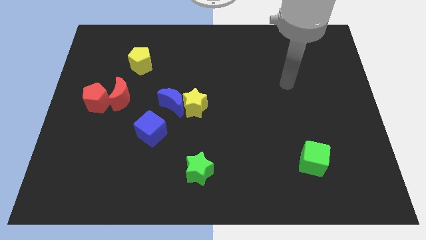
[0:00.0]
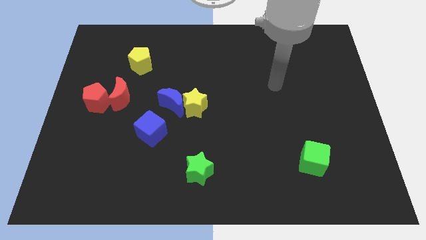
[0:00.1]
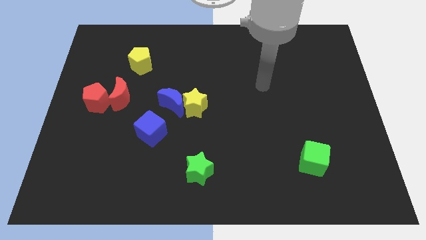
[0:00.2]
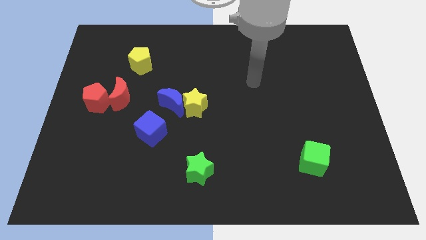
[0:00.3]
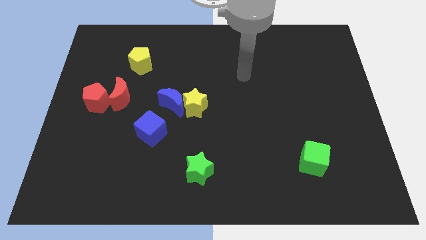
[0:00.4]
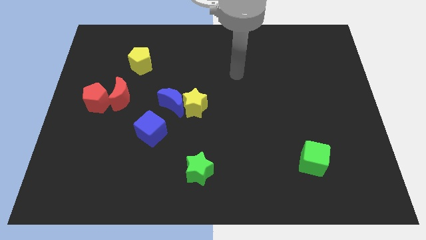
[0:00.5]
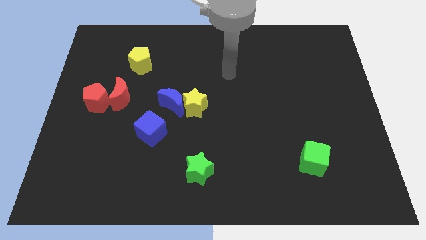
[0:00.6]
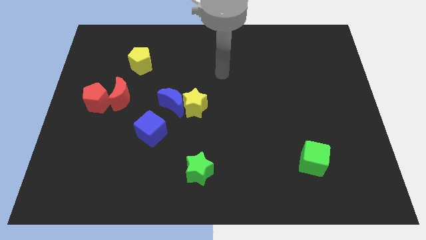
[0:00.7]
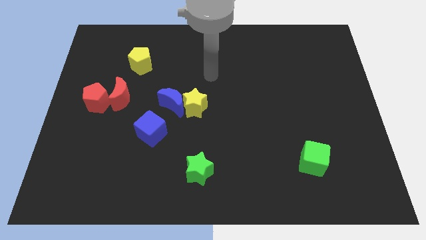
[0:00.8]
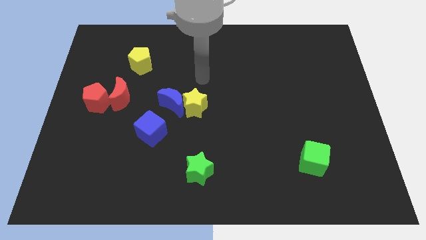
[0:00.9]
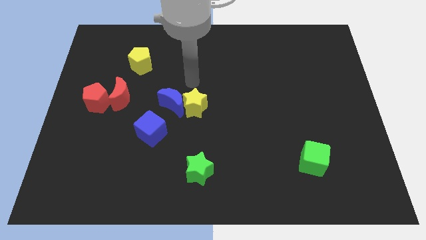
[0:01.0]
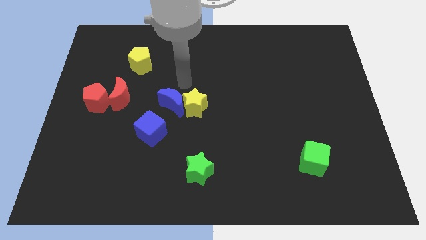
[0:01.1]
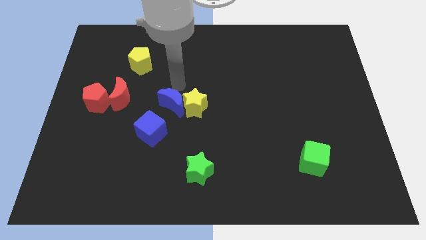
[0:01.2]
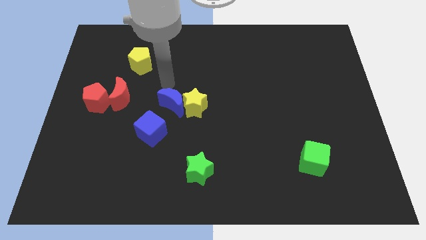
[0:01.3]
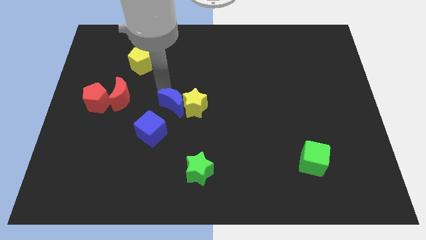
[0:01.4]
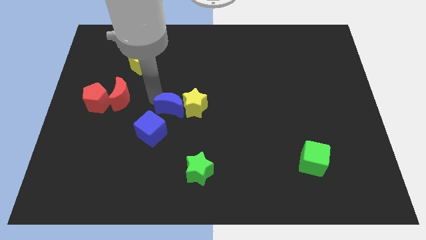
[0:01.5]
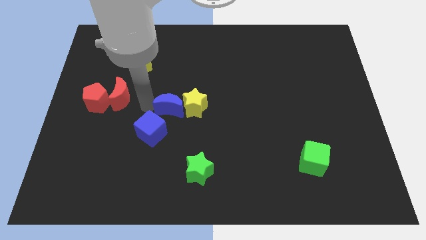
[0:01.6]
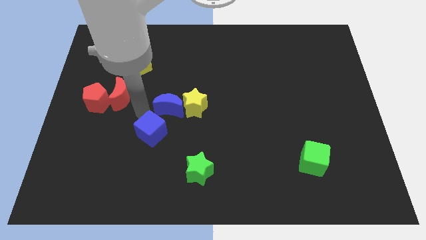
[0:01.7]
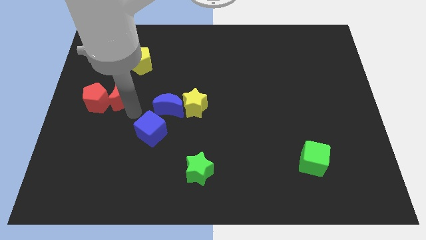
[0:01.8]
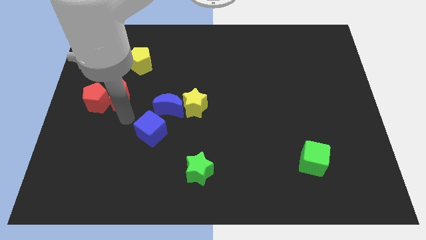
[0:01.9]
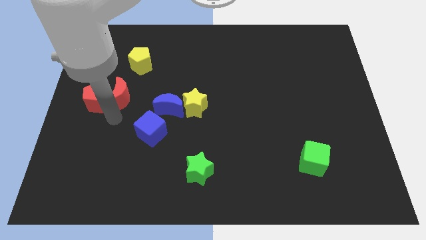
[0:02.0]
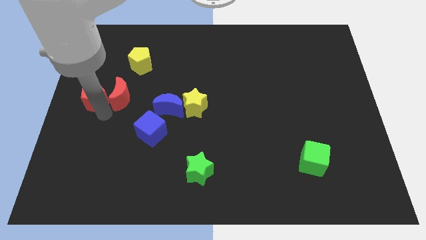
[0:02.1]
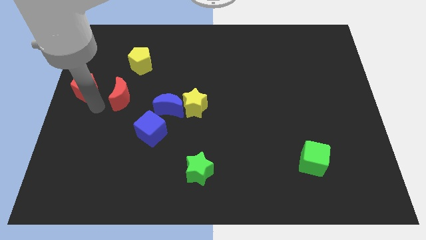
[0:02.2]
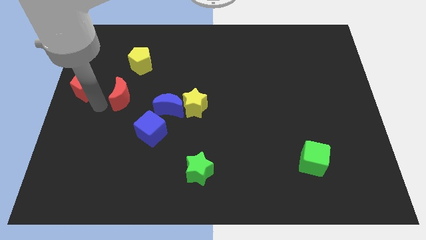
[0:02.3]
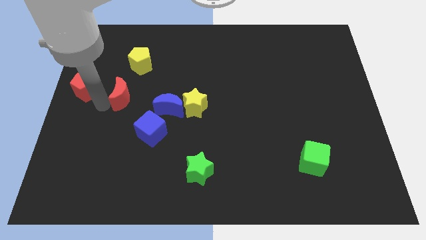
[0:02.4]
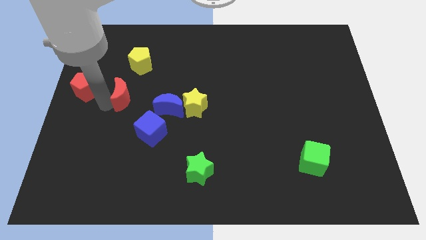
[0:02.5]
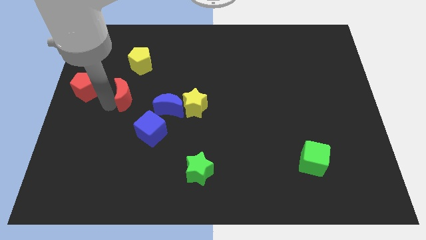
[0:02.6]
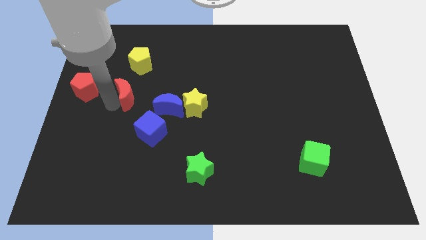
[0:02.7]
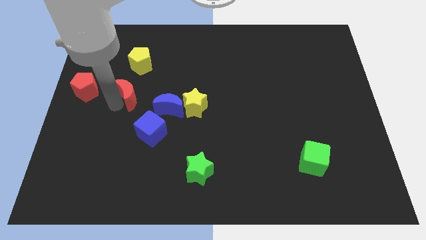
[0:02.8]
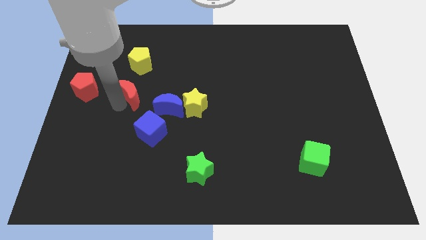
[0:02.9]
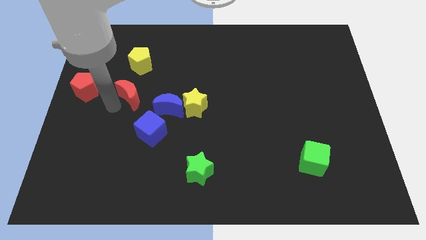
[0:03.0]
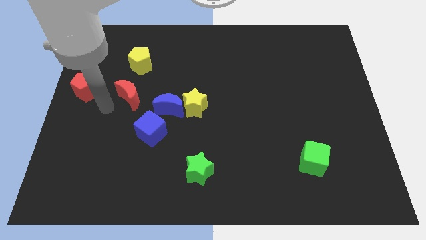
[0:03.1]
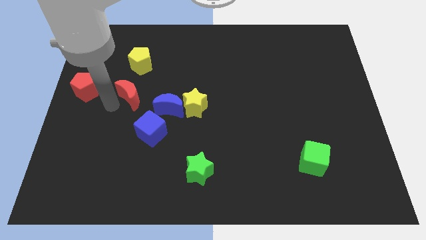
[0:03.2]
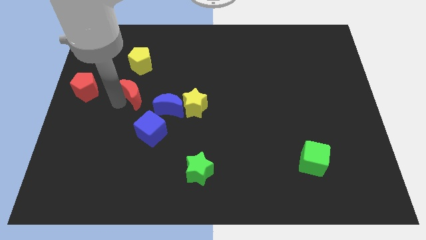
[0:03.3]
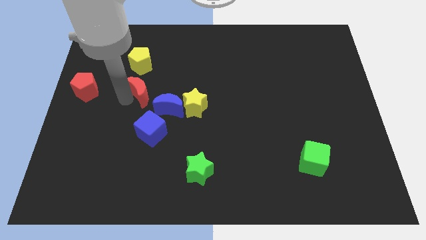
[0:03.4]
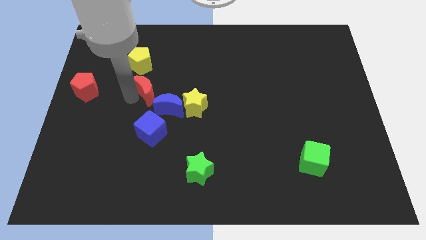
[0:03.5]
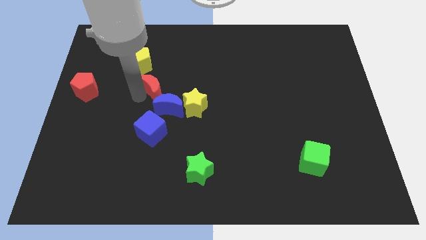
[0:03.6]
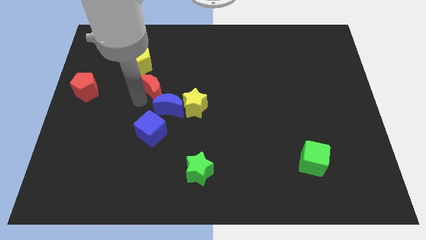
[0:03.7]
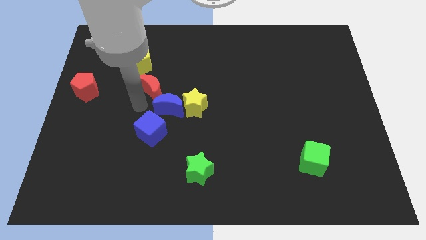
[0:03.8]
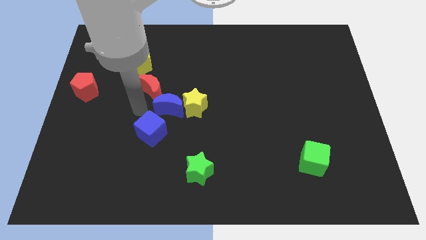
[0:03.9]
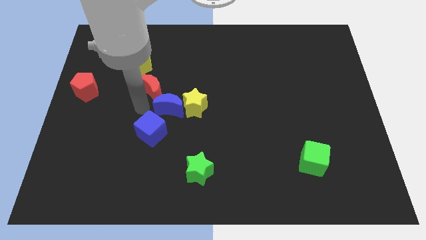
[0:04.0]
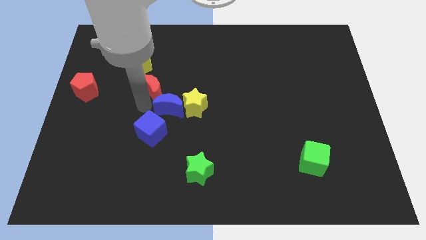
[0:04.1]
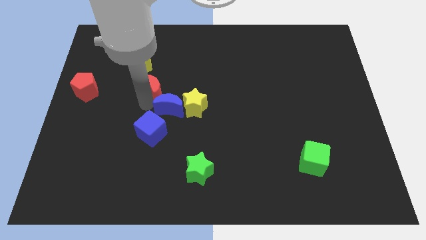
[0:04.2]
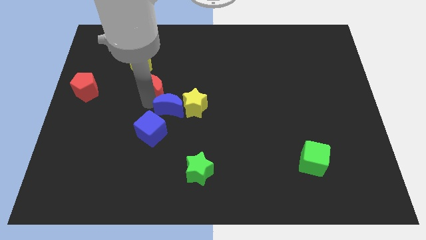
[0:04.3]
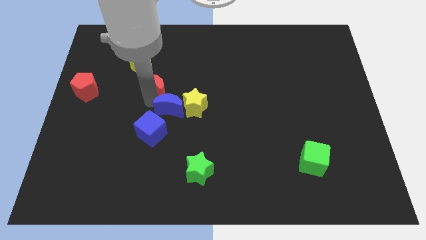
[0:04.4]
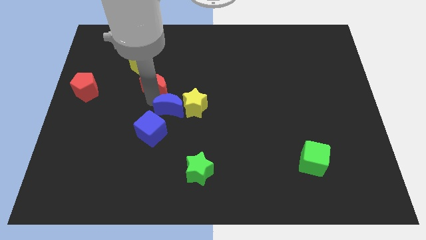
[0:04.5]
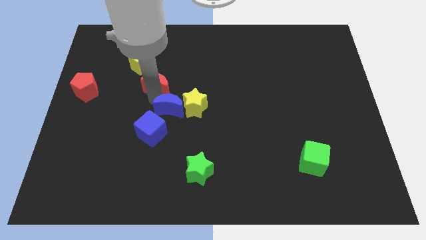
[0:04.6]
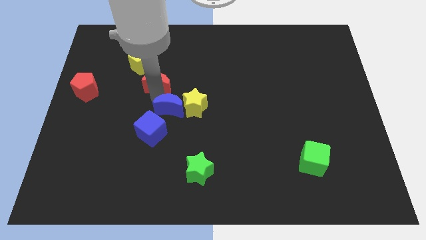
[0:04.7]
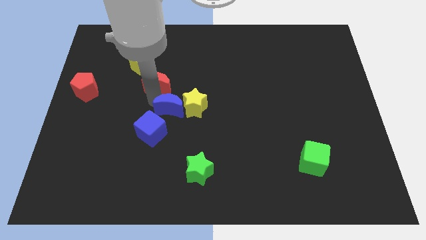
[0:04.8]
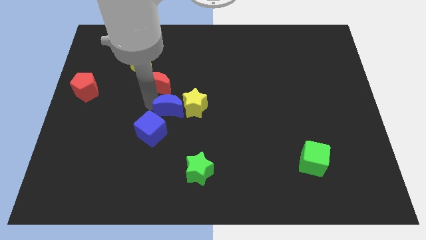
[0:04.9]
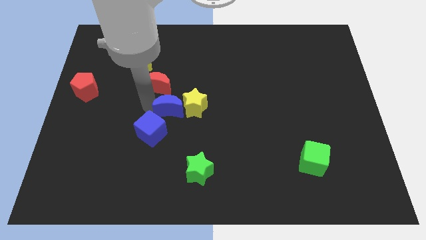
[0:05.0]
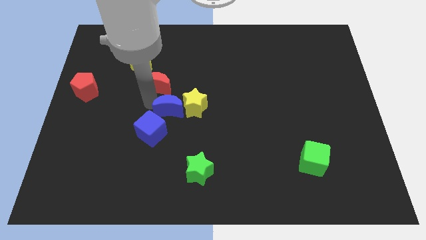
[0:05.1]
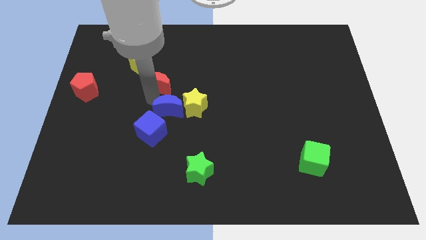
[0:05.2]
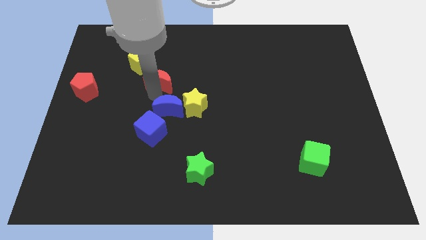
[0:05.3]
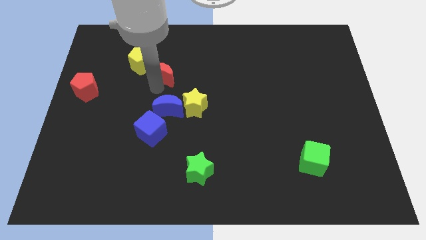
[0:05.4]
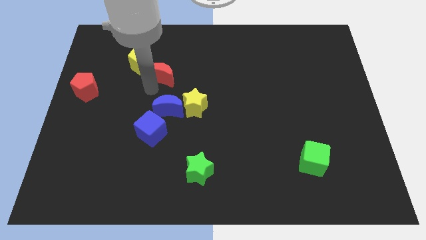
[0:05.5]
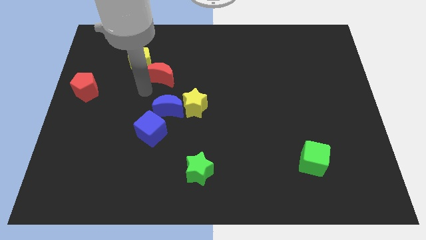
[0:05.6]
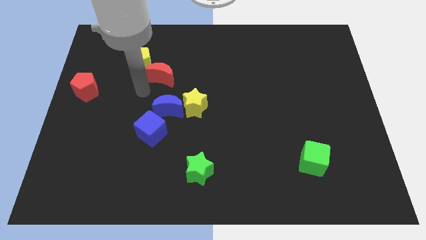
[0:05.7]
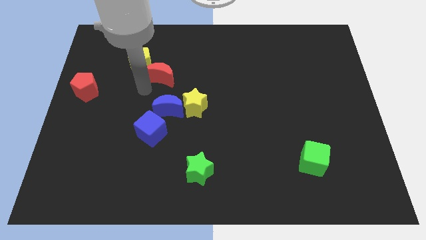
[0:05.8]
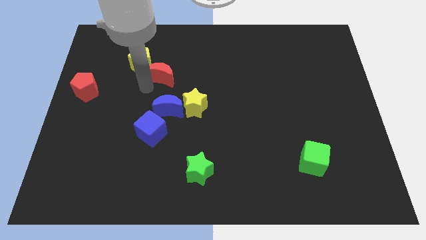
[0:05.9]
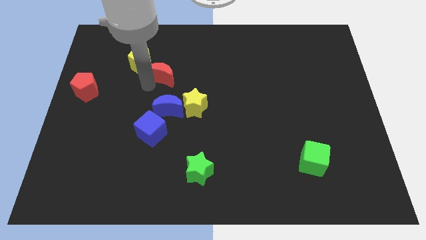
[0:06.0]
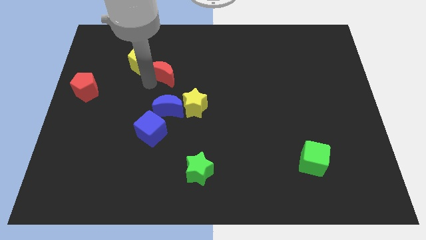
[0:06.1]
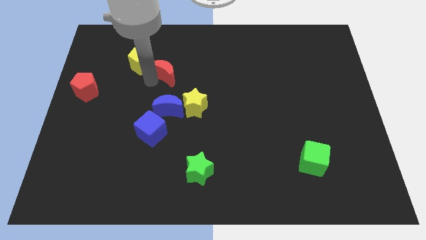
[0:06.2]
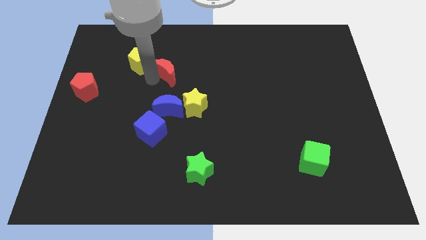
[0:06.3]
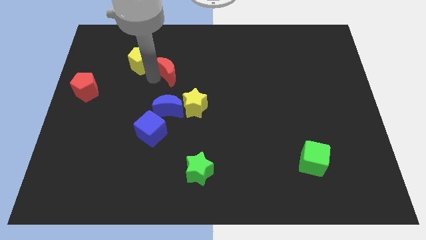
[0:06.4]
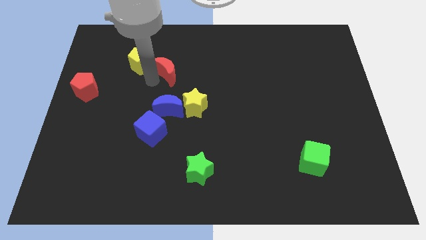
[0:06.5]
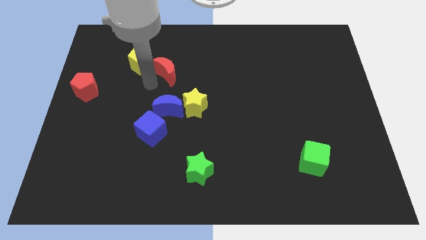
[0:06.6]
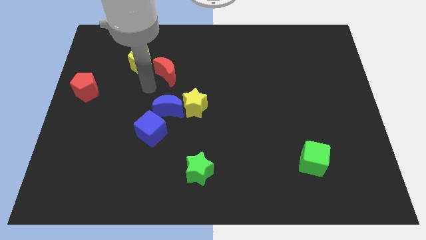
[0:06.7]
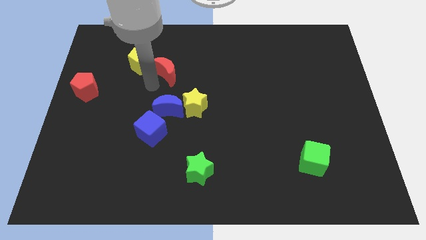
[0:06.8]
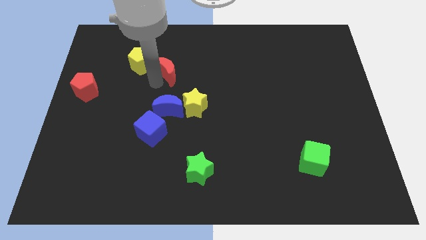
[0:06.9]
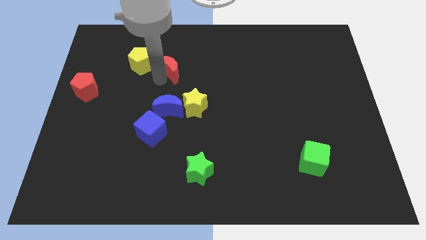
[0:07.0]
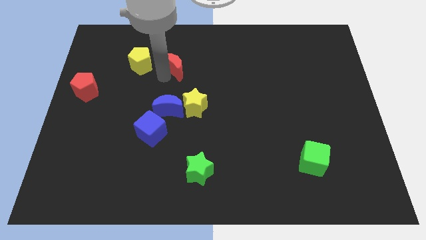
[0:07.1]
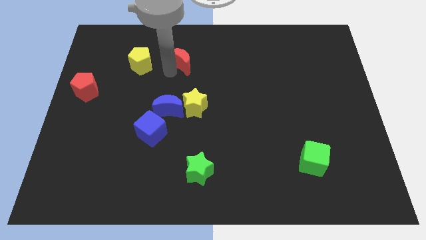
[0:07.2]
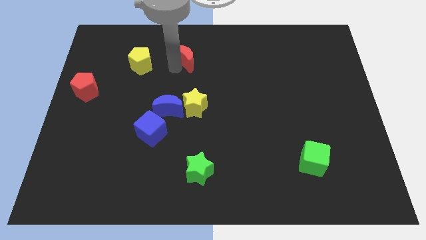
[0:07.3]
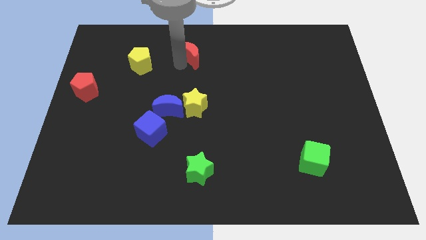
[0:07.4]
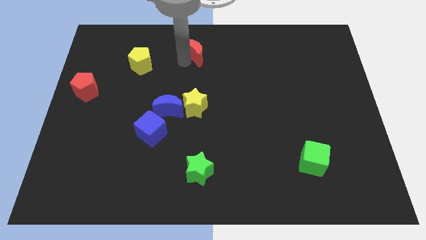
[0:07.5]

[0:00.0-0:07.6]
move the red moon to the towards your base

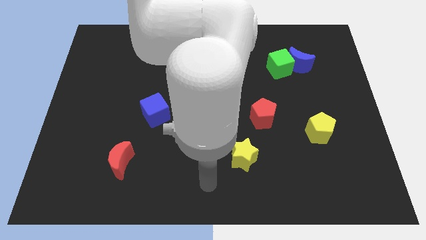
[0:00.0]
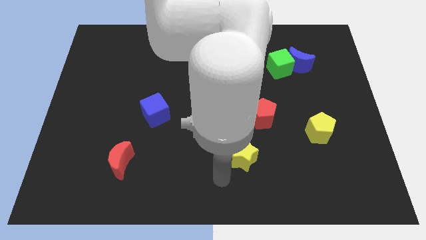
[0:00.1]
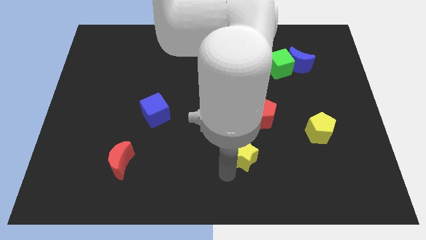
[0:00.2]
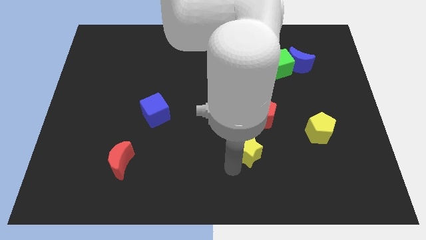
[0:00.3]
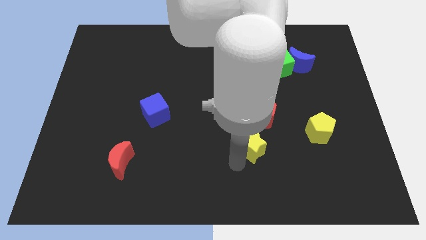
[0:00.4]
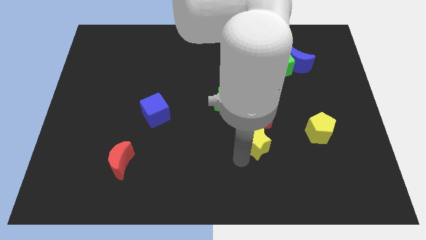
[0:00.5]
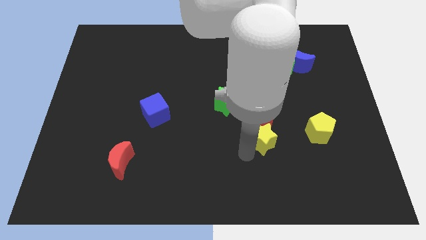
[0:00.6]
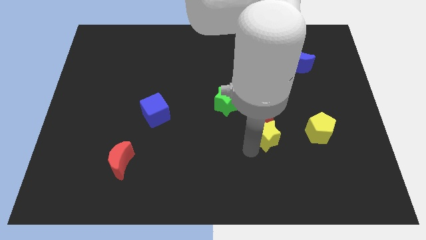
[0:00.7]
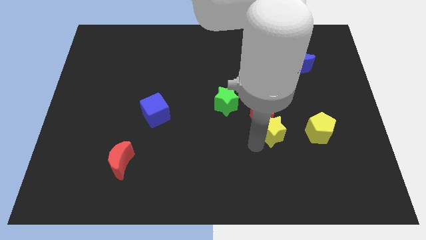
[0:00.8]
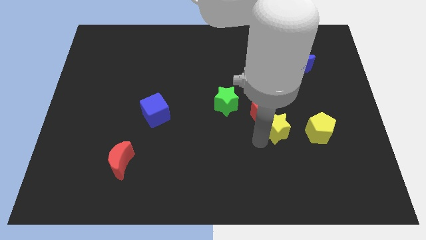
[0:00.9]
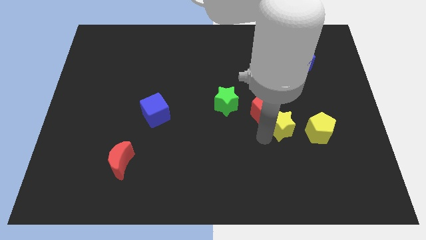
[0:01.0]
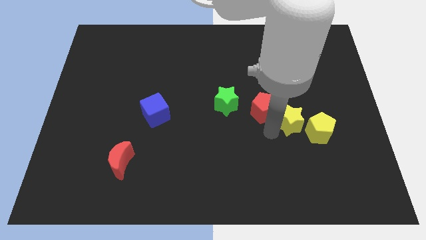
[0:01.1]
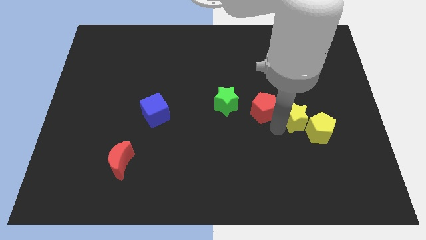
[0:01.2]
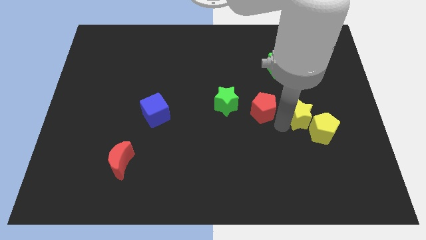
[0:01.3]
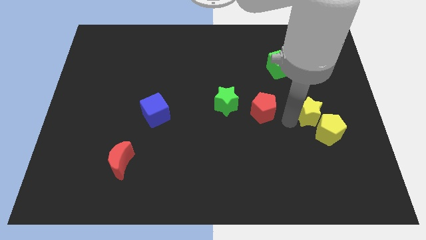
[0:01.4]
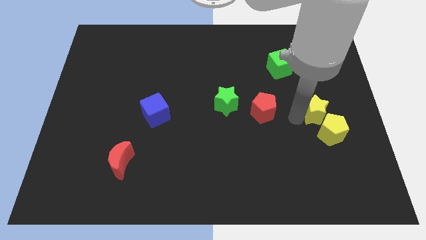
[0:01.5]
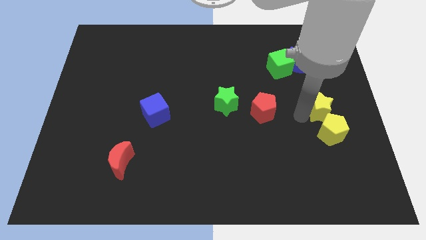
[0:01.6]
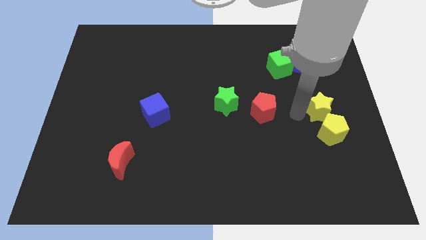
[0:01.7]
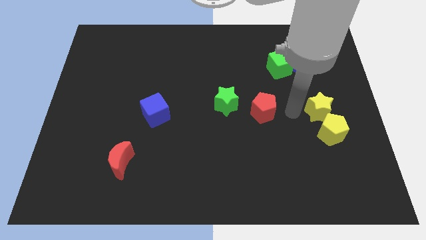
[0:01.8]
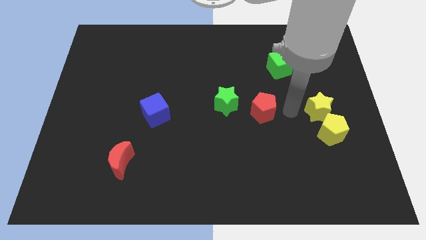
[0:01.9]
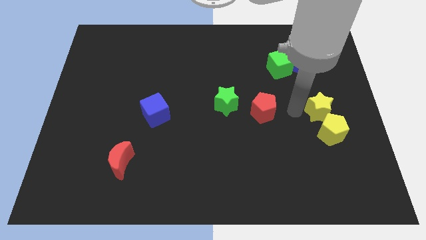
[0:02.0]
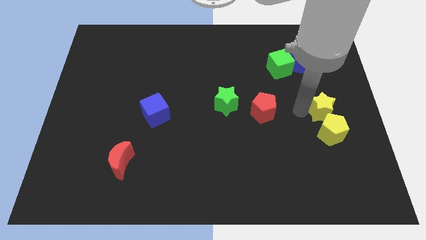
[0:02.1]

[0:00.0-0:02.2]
put the yellow star to the right side
